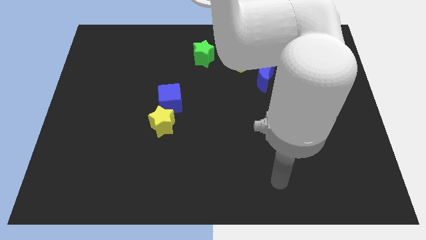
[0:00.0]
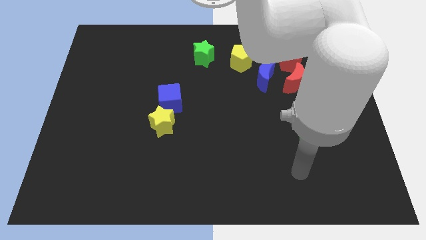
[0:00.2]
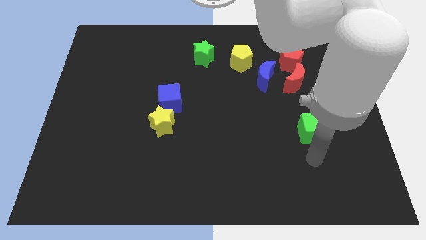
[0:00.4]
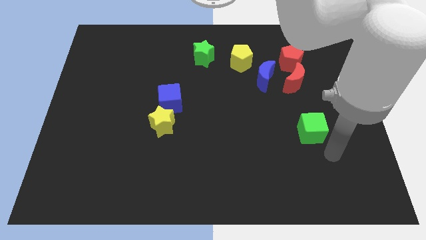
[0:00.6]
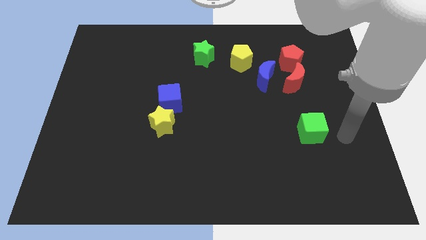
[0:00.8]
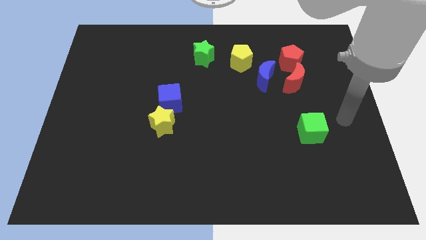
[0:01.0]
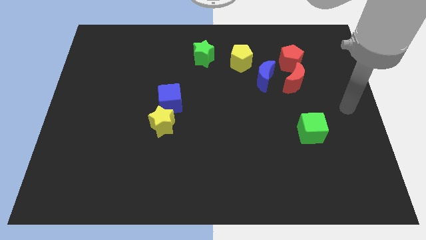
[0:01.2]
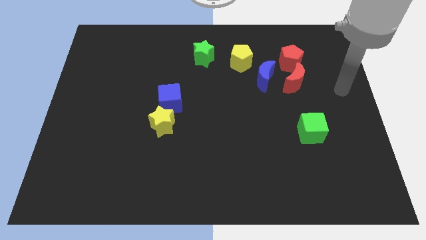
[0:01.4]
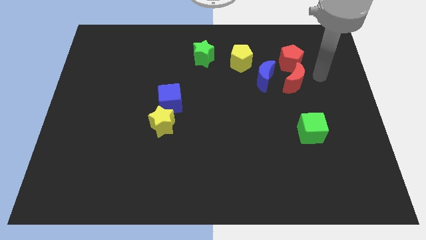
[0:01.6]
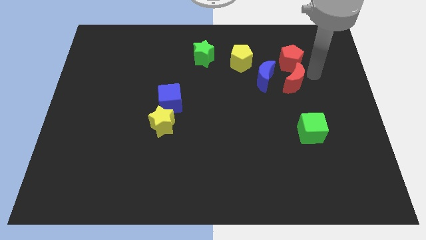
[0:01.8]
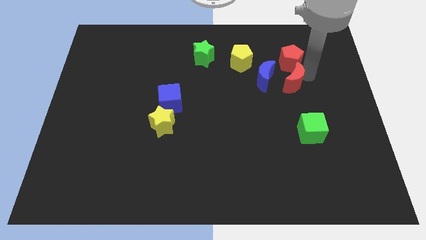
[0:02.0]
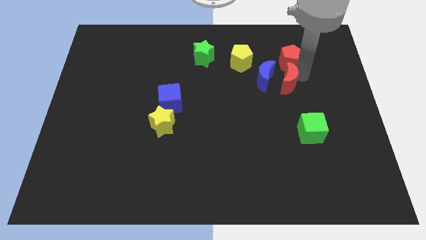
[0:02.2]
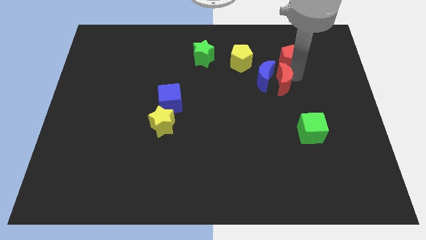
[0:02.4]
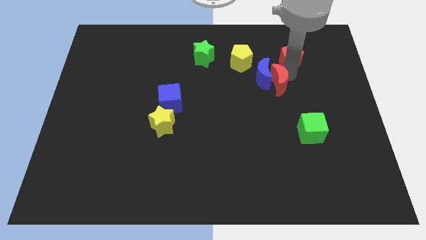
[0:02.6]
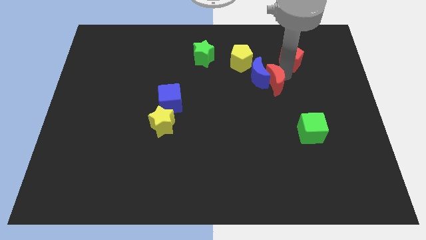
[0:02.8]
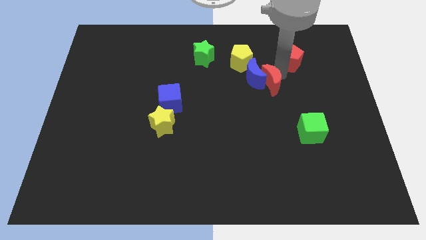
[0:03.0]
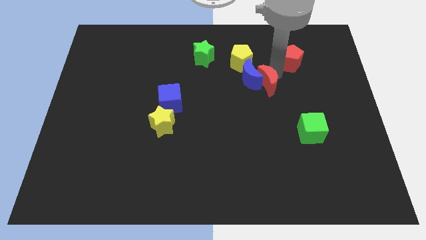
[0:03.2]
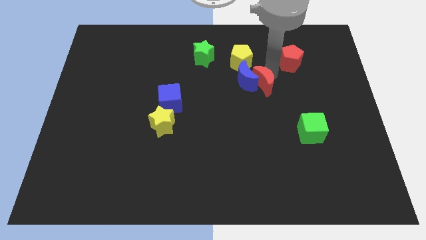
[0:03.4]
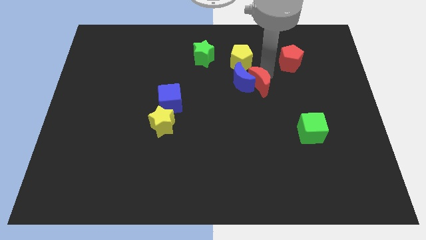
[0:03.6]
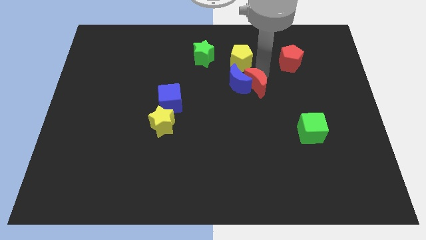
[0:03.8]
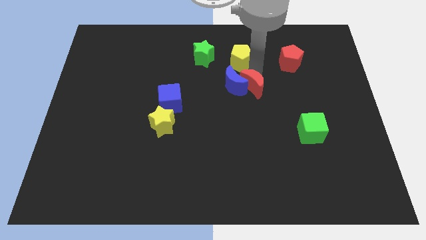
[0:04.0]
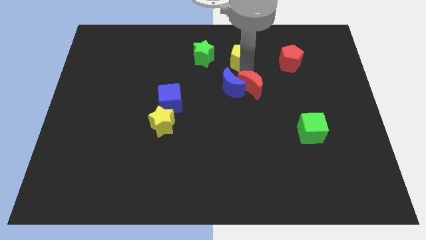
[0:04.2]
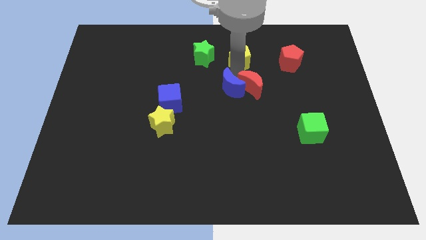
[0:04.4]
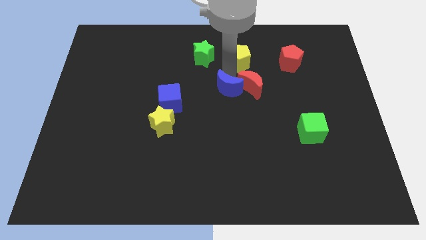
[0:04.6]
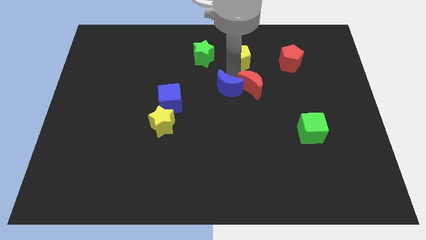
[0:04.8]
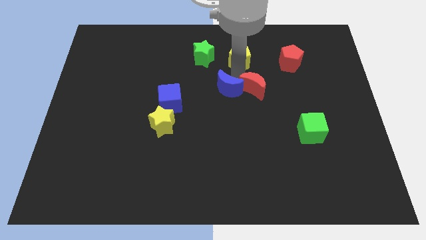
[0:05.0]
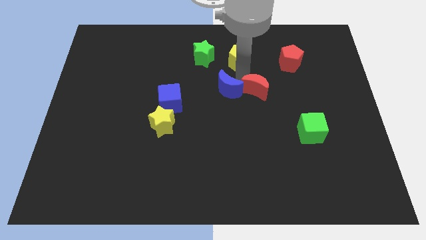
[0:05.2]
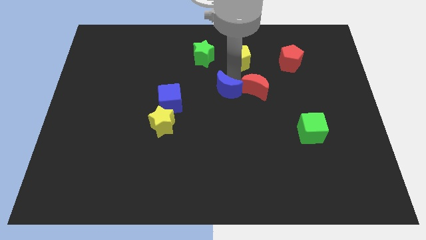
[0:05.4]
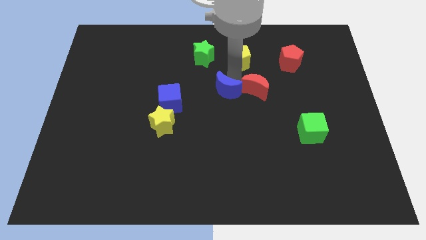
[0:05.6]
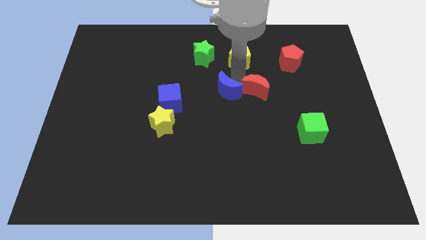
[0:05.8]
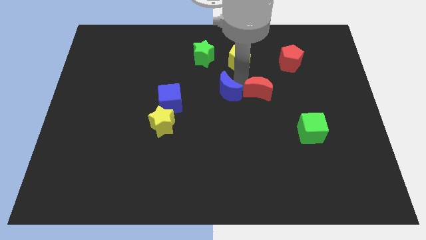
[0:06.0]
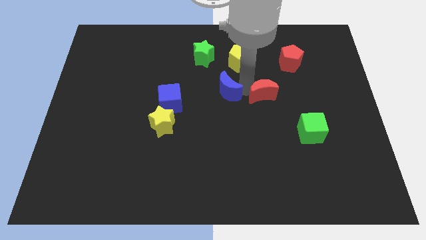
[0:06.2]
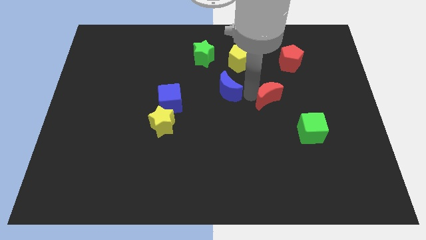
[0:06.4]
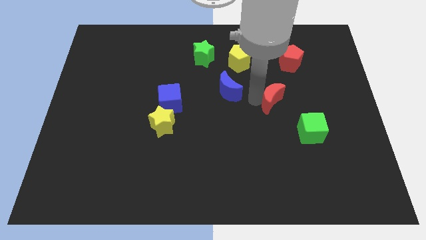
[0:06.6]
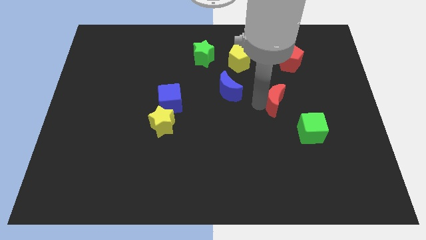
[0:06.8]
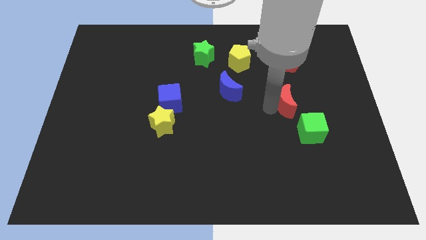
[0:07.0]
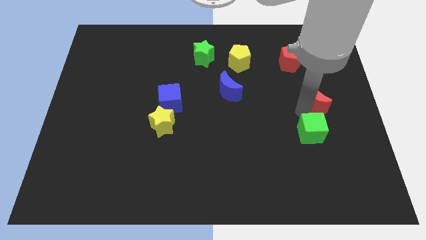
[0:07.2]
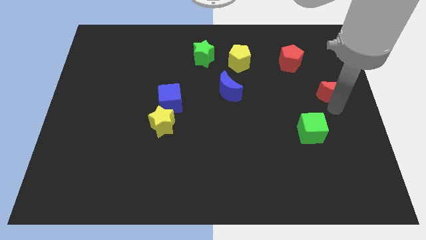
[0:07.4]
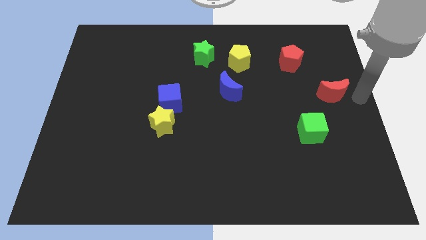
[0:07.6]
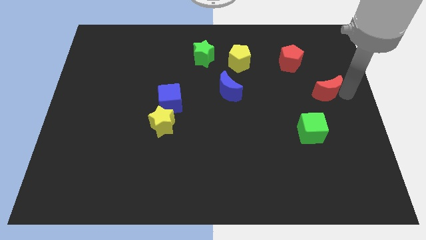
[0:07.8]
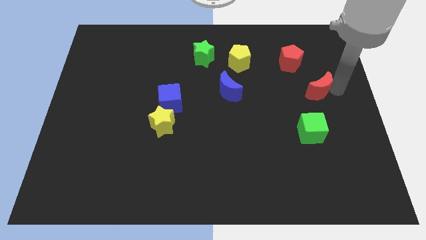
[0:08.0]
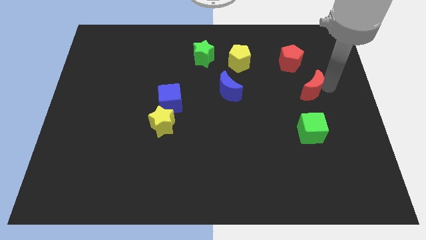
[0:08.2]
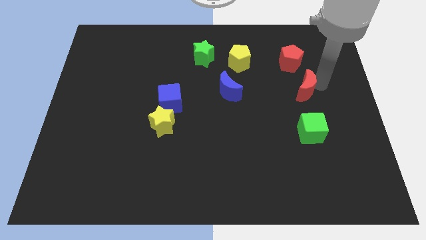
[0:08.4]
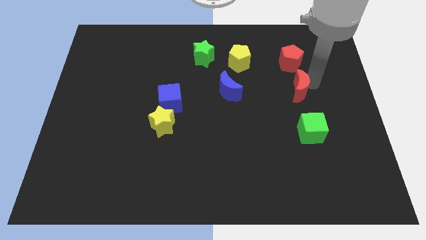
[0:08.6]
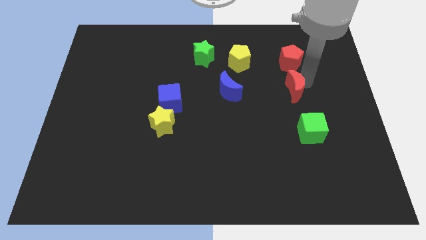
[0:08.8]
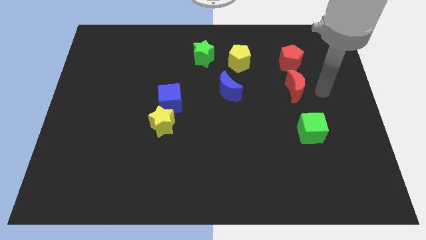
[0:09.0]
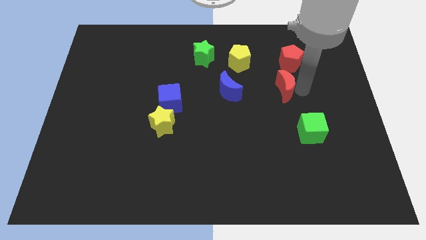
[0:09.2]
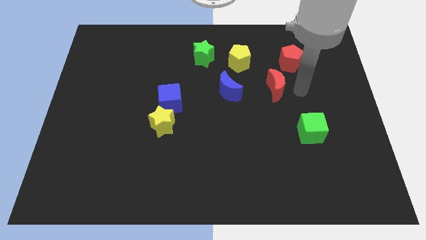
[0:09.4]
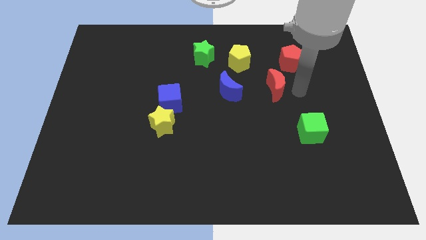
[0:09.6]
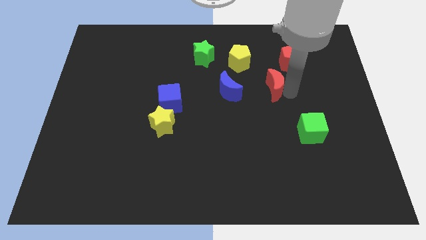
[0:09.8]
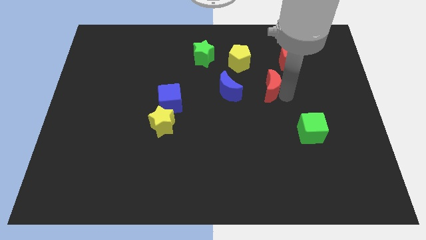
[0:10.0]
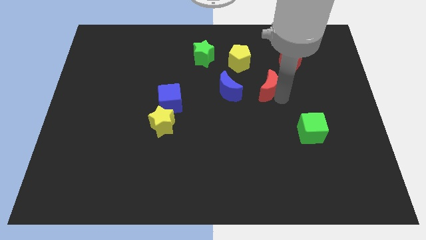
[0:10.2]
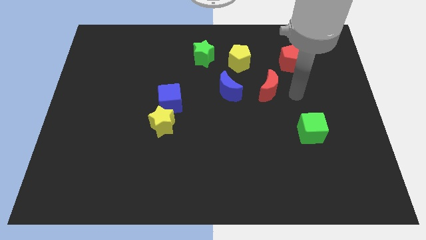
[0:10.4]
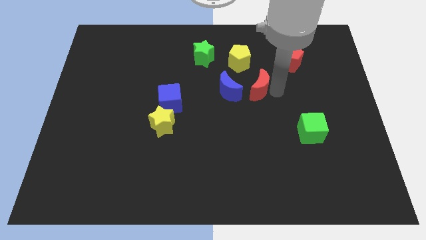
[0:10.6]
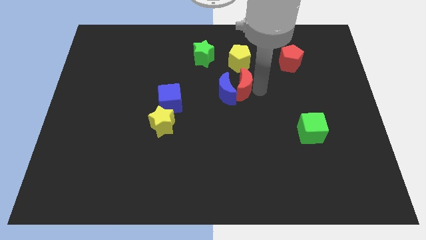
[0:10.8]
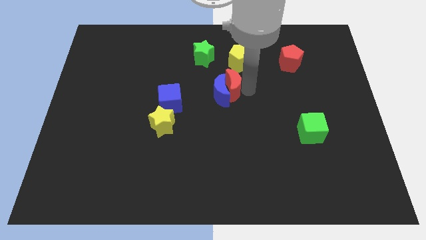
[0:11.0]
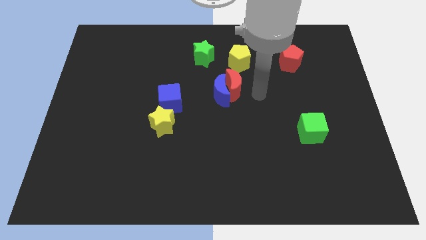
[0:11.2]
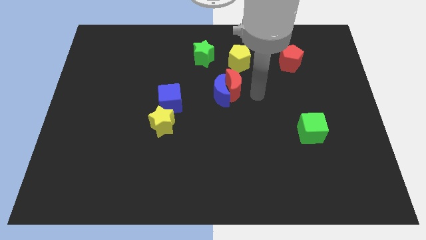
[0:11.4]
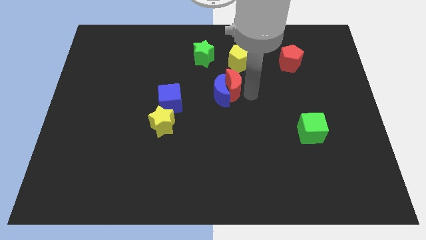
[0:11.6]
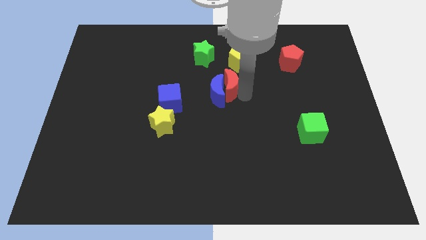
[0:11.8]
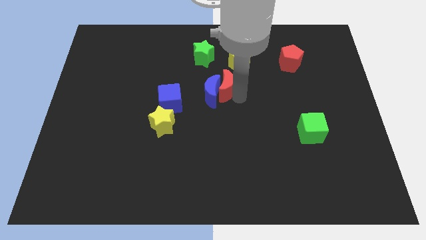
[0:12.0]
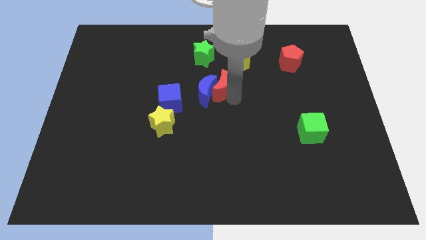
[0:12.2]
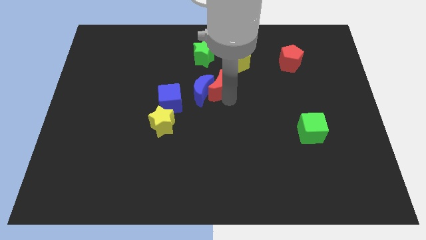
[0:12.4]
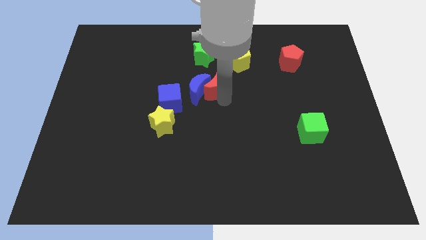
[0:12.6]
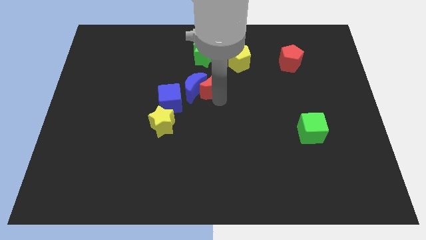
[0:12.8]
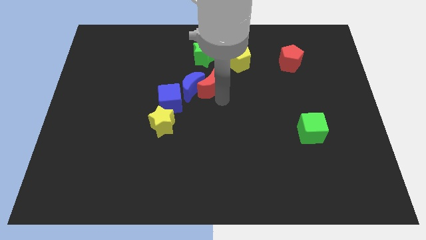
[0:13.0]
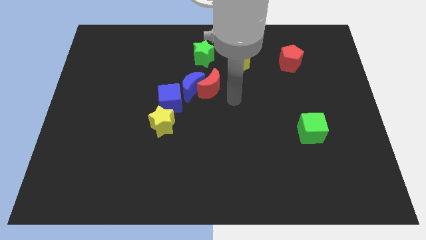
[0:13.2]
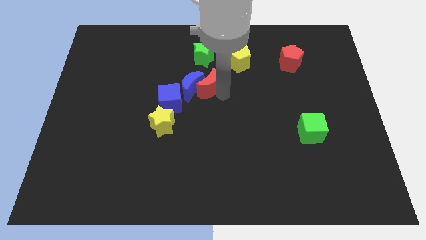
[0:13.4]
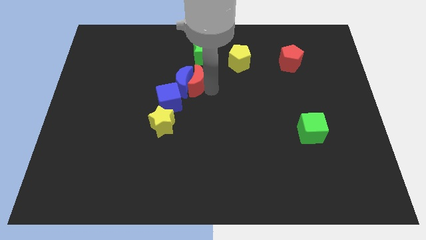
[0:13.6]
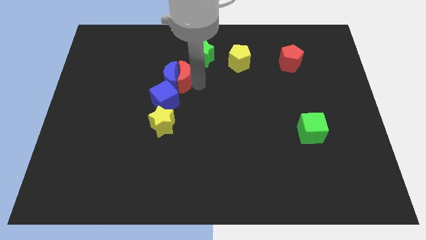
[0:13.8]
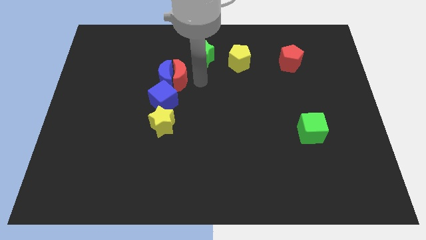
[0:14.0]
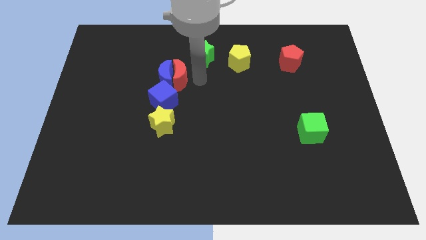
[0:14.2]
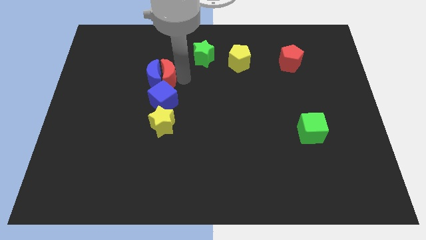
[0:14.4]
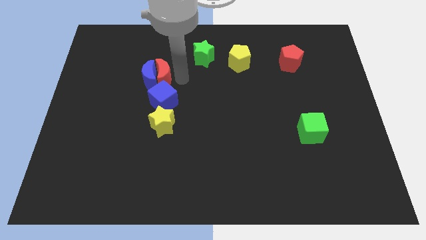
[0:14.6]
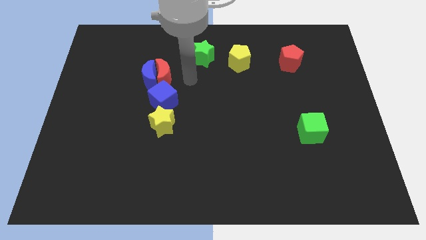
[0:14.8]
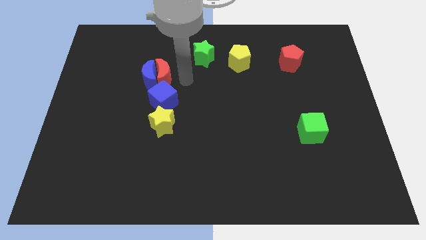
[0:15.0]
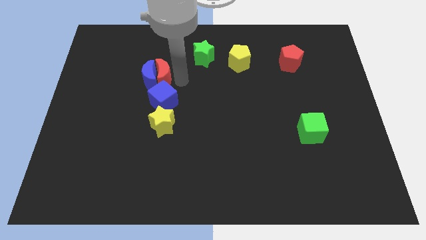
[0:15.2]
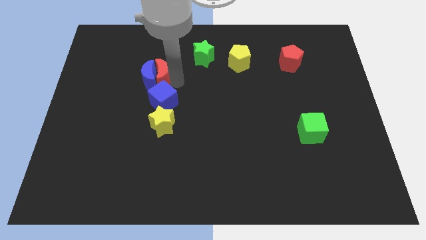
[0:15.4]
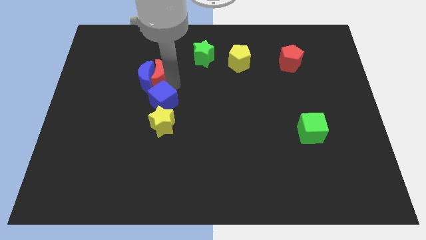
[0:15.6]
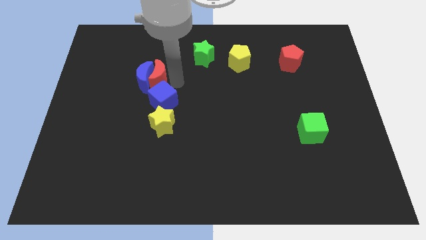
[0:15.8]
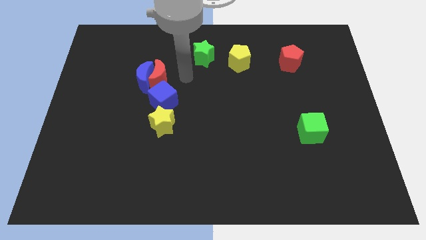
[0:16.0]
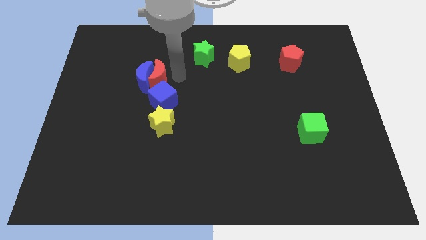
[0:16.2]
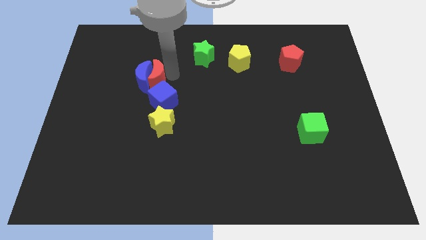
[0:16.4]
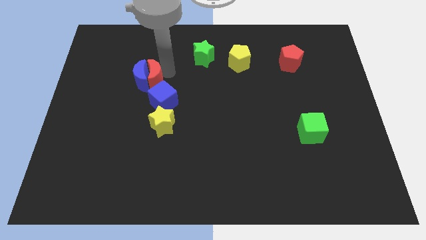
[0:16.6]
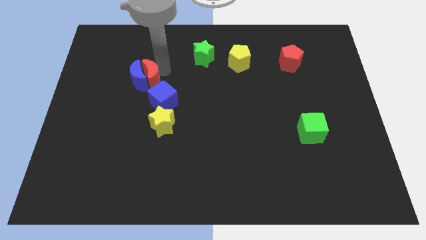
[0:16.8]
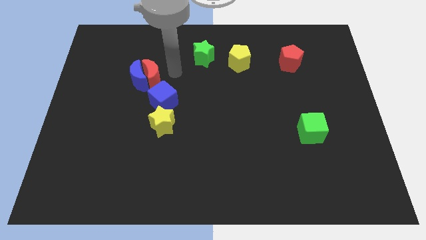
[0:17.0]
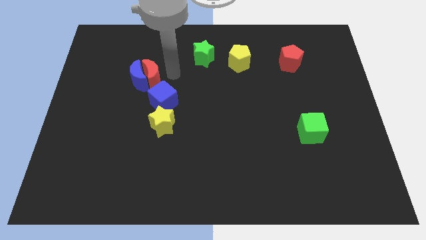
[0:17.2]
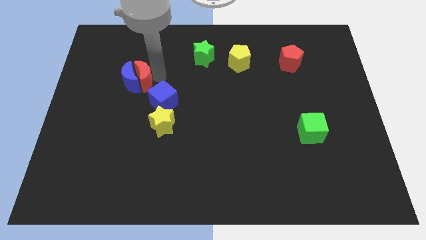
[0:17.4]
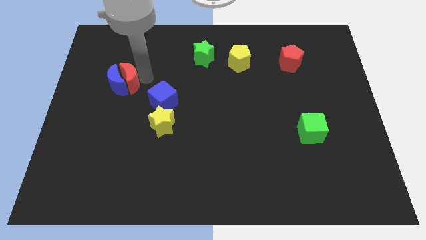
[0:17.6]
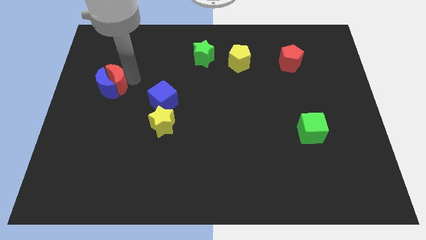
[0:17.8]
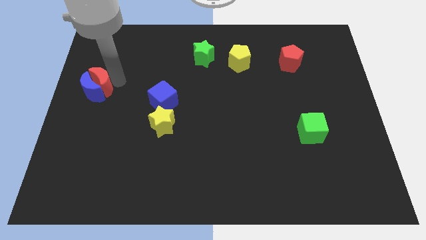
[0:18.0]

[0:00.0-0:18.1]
put the red moon to the left side of the board
